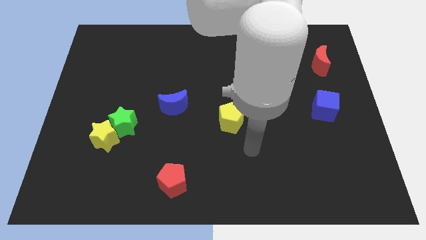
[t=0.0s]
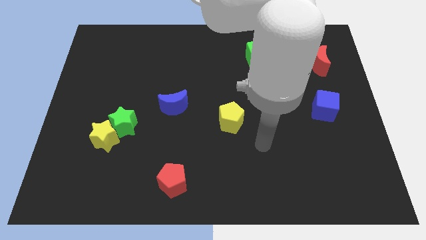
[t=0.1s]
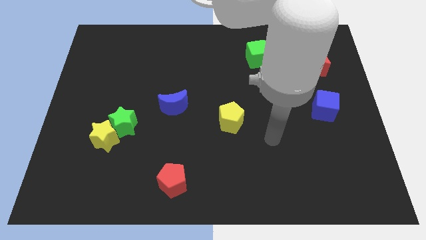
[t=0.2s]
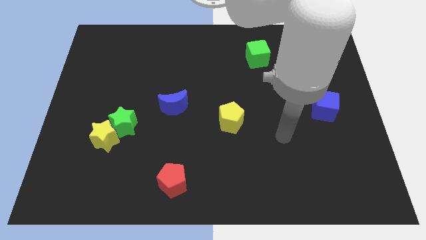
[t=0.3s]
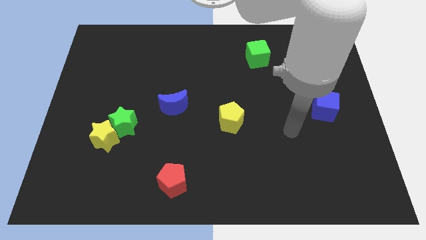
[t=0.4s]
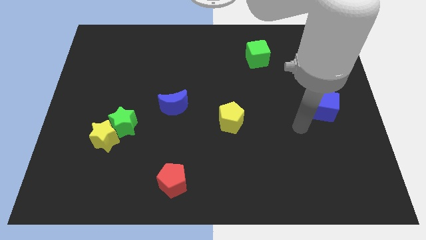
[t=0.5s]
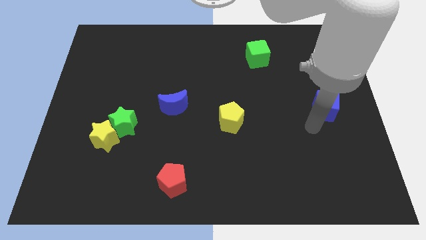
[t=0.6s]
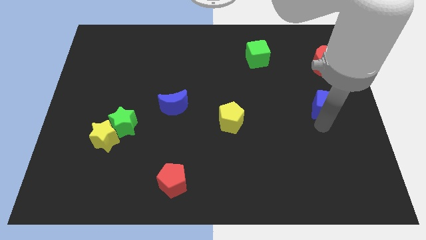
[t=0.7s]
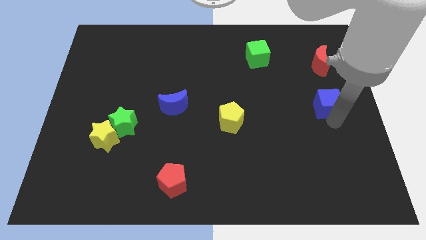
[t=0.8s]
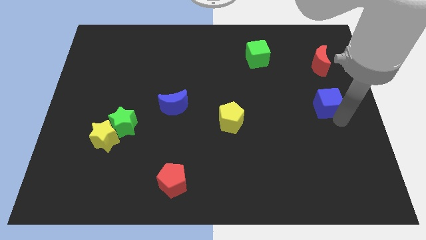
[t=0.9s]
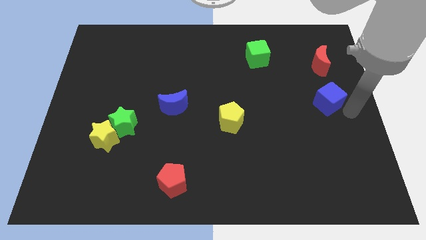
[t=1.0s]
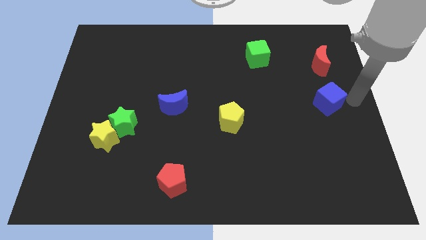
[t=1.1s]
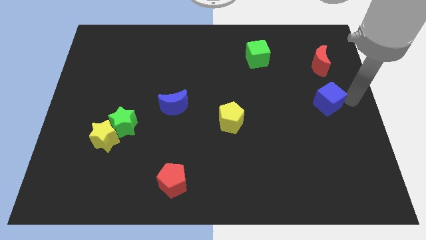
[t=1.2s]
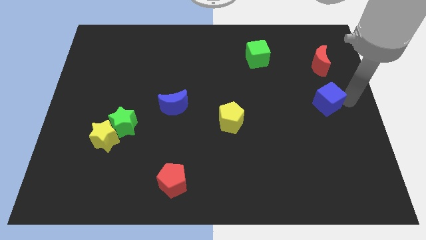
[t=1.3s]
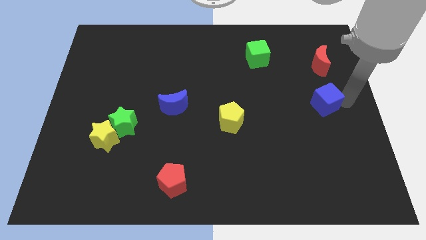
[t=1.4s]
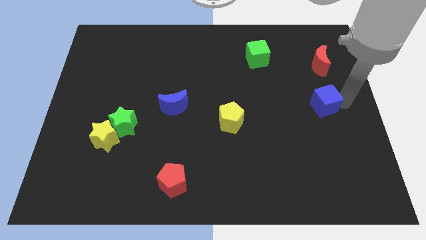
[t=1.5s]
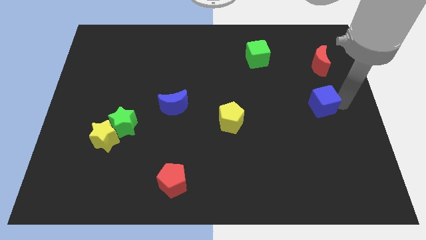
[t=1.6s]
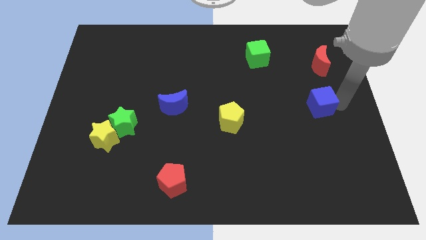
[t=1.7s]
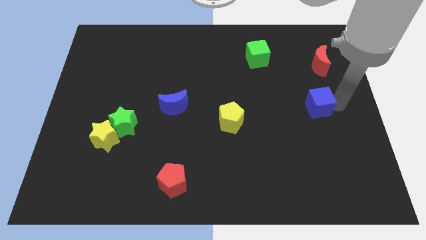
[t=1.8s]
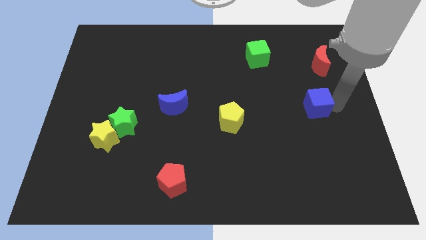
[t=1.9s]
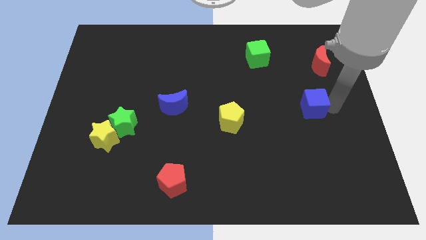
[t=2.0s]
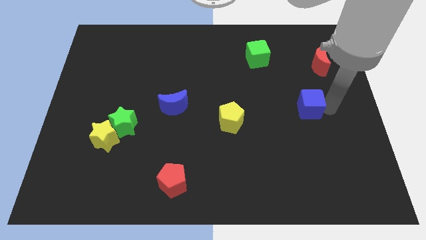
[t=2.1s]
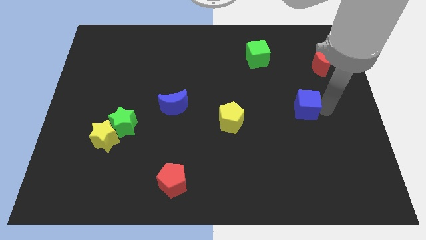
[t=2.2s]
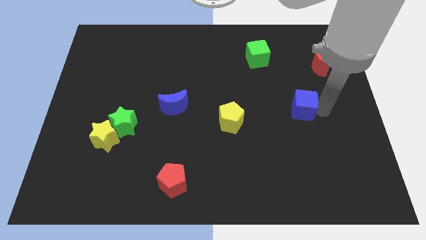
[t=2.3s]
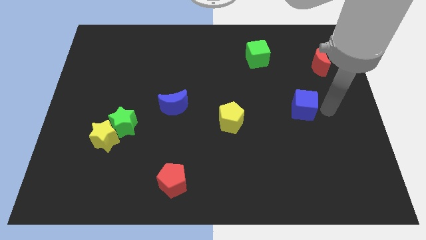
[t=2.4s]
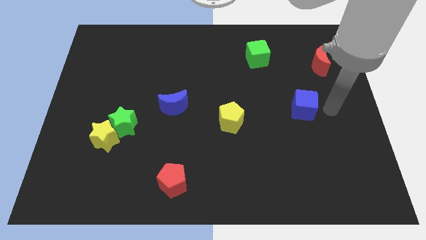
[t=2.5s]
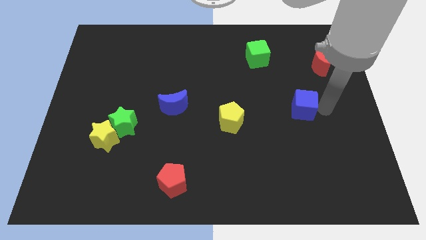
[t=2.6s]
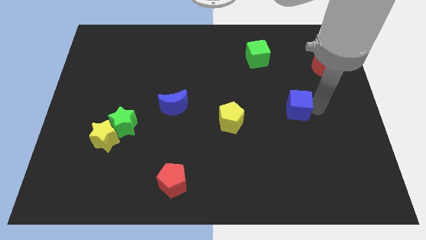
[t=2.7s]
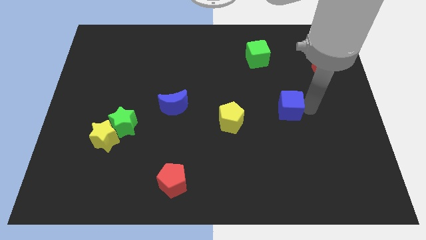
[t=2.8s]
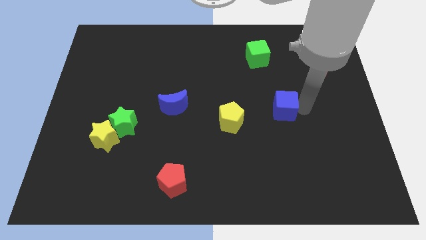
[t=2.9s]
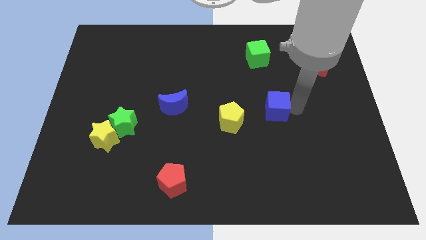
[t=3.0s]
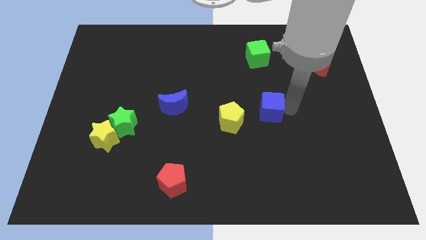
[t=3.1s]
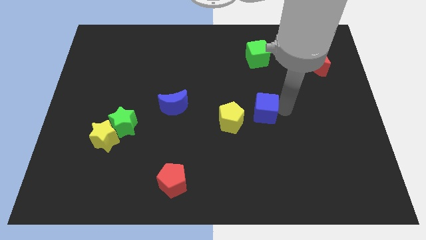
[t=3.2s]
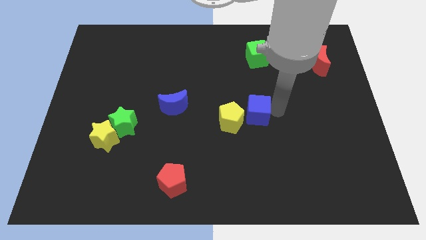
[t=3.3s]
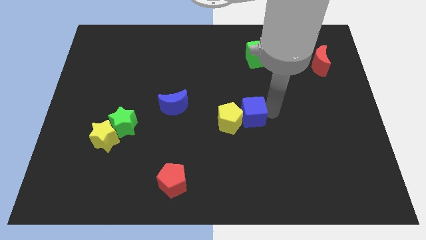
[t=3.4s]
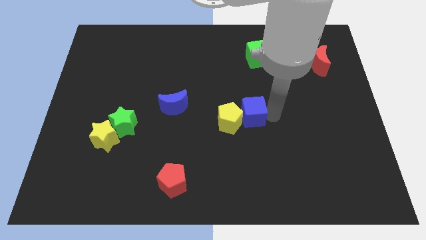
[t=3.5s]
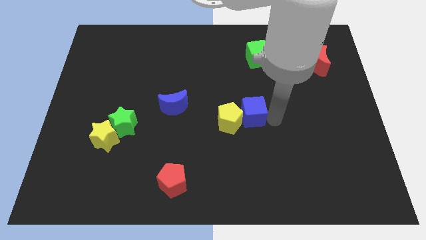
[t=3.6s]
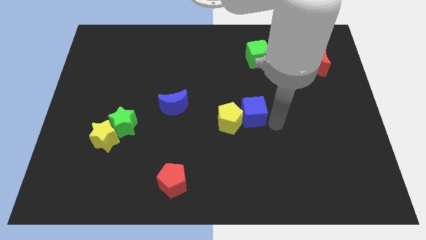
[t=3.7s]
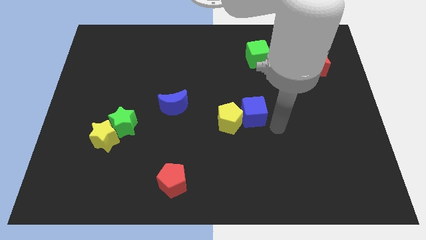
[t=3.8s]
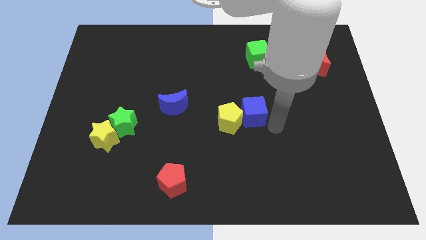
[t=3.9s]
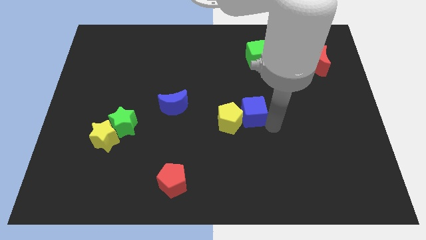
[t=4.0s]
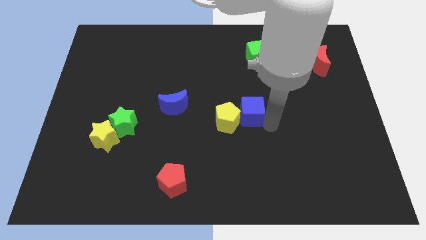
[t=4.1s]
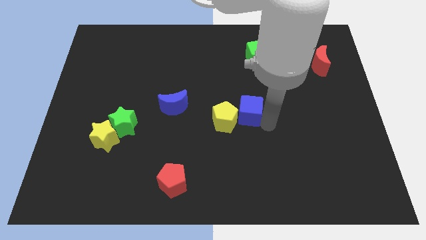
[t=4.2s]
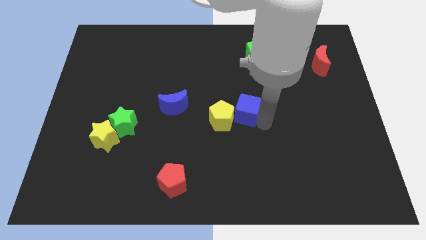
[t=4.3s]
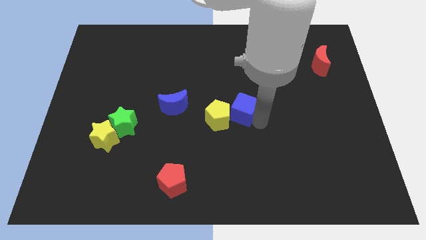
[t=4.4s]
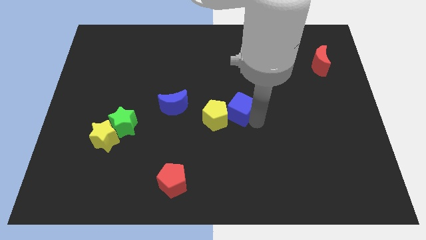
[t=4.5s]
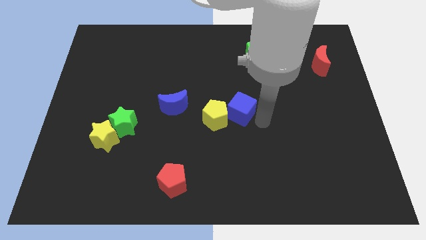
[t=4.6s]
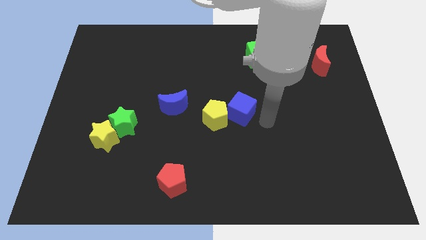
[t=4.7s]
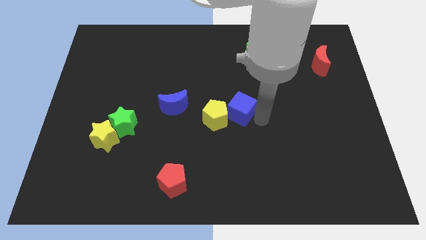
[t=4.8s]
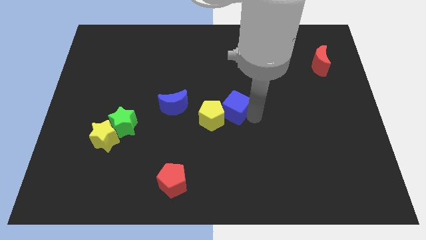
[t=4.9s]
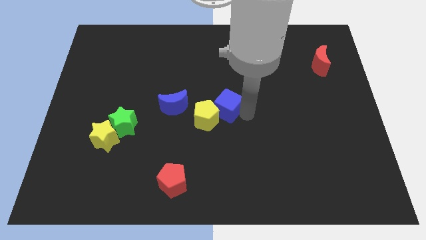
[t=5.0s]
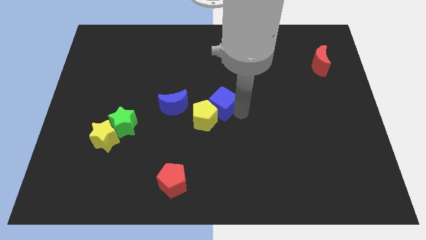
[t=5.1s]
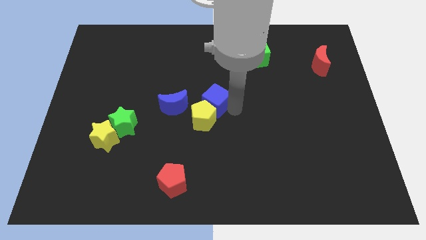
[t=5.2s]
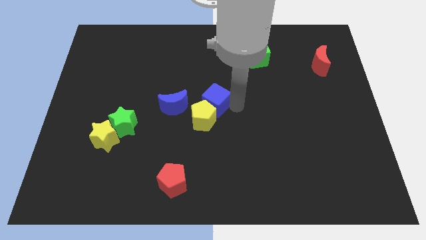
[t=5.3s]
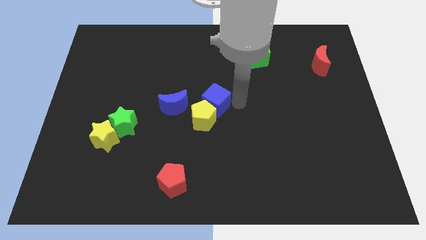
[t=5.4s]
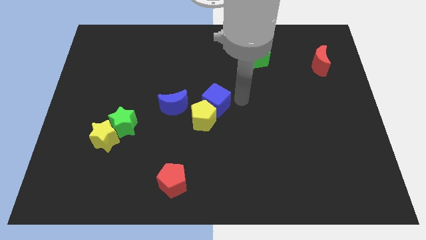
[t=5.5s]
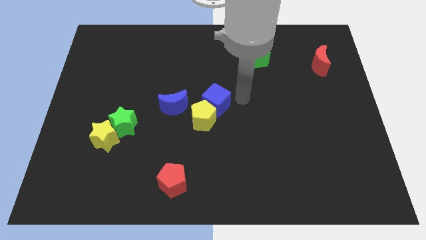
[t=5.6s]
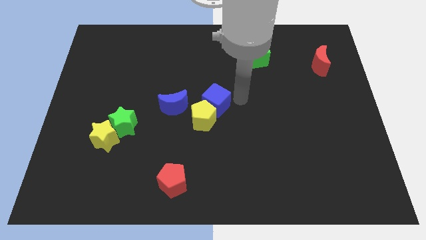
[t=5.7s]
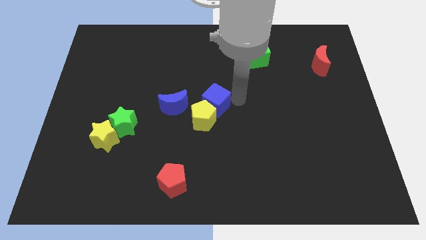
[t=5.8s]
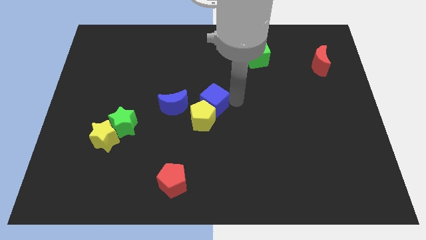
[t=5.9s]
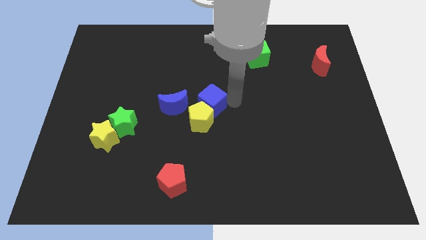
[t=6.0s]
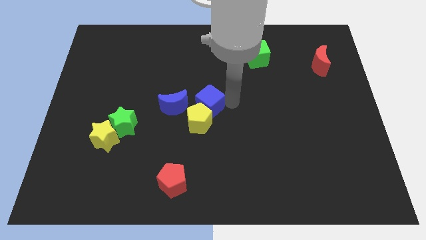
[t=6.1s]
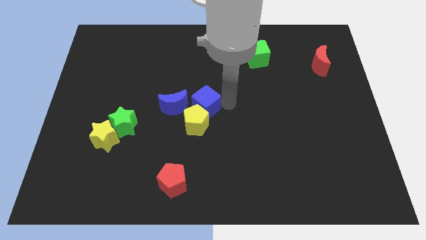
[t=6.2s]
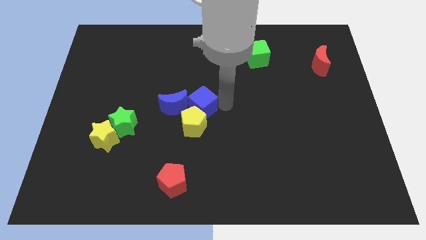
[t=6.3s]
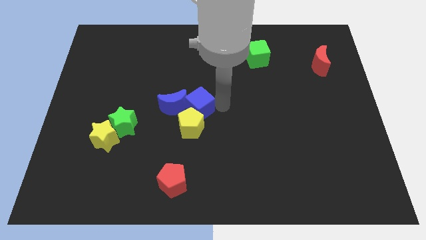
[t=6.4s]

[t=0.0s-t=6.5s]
put the blue cube to the blue moon
